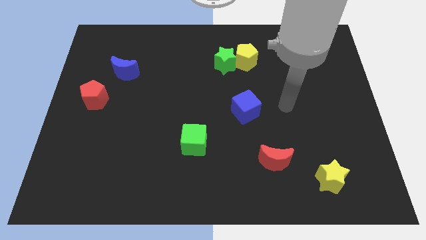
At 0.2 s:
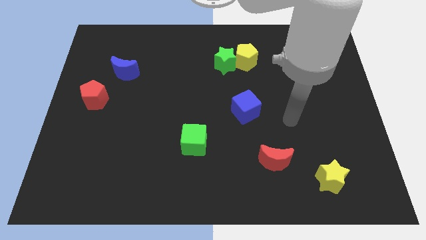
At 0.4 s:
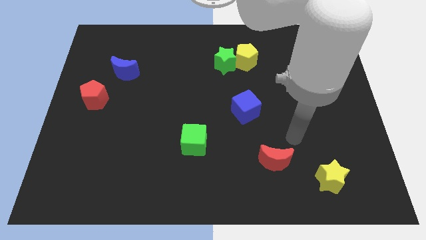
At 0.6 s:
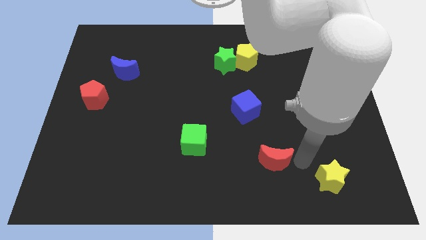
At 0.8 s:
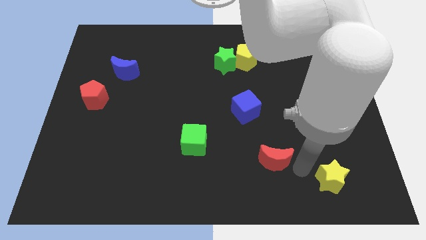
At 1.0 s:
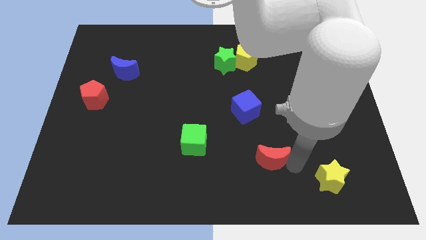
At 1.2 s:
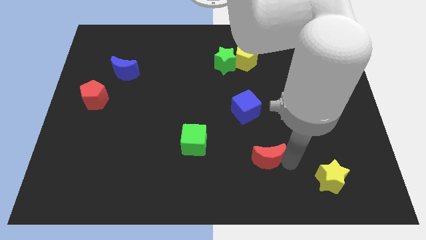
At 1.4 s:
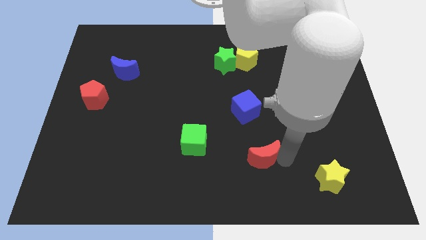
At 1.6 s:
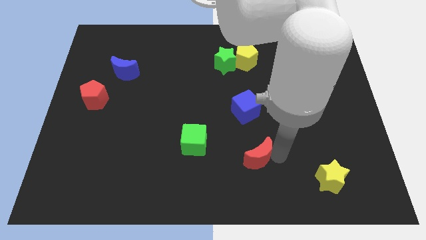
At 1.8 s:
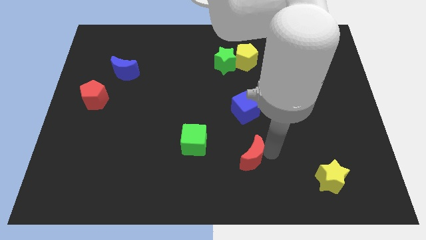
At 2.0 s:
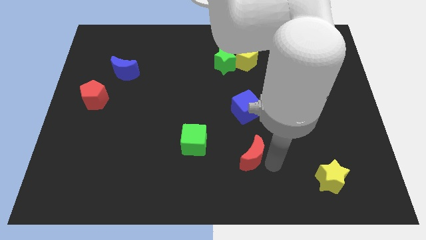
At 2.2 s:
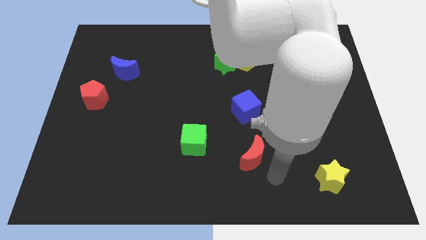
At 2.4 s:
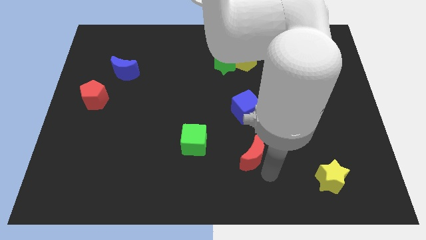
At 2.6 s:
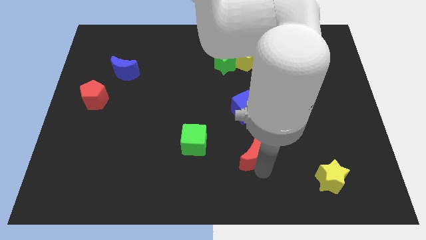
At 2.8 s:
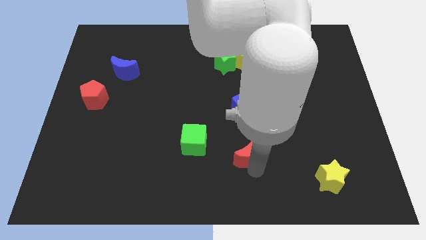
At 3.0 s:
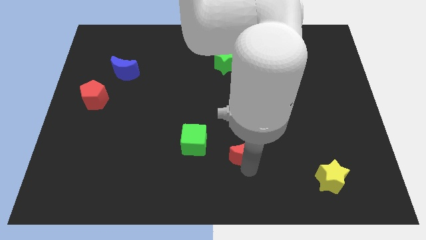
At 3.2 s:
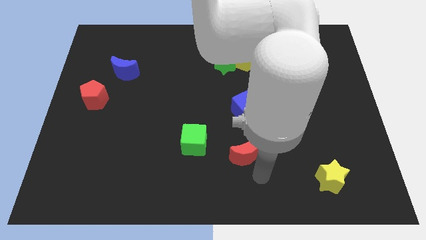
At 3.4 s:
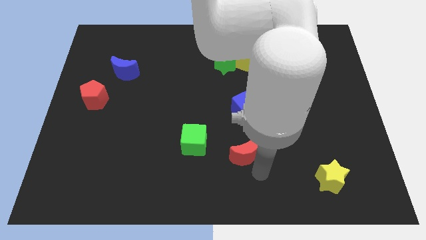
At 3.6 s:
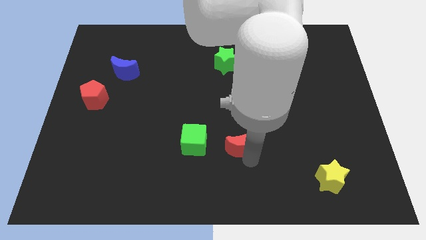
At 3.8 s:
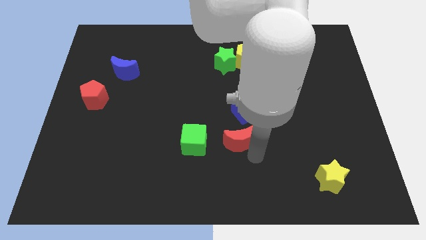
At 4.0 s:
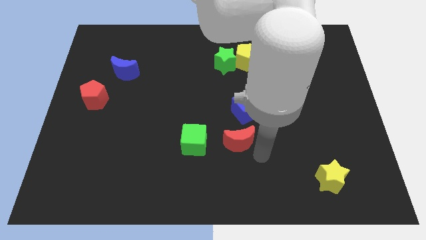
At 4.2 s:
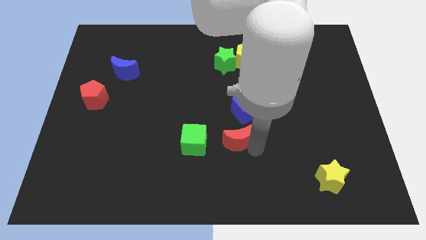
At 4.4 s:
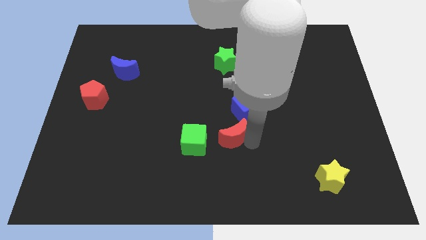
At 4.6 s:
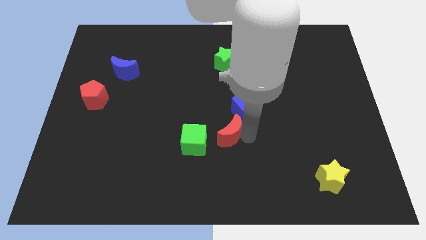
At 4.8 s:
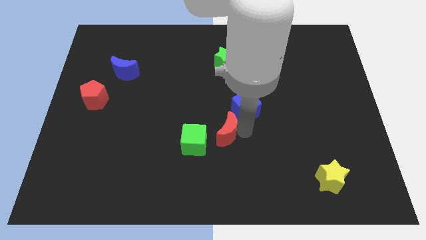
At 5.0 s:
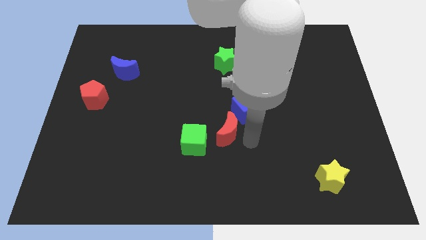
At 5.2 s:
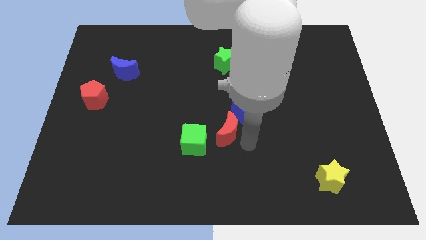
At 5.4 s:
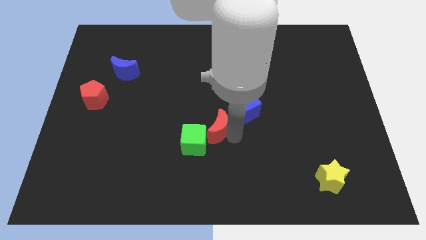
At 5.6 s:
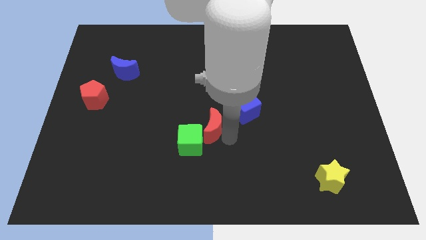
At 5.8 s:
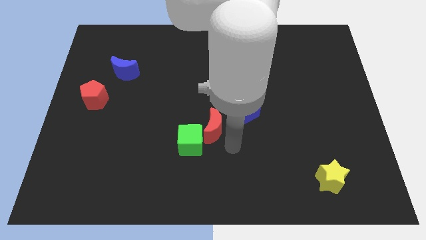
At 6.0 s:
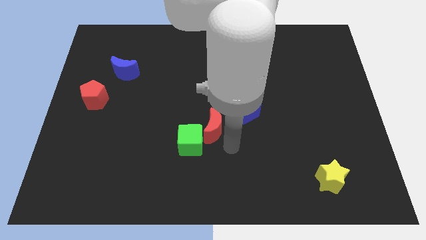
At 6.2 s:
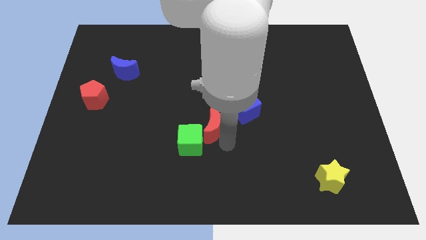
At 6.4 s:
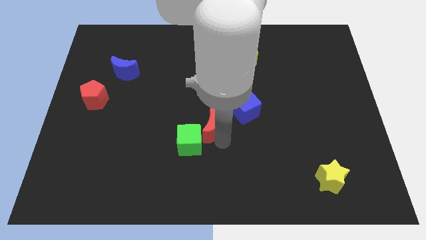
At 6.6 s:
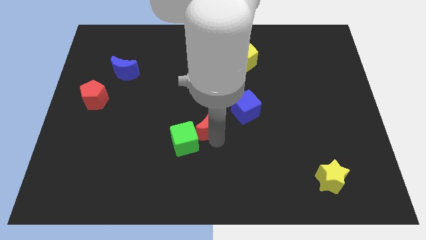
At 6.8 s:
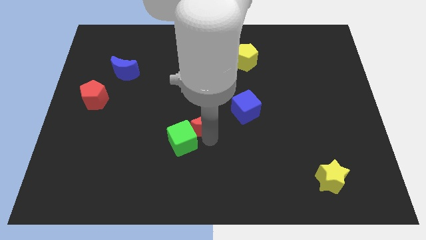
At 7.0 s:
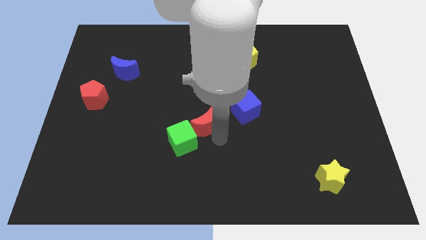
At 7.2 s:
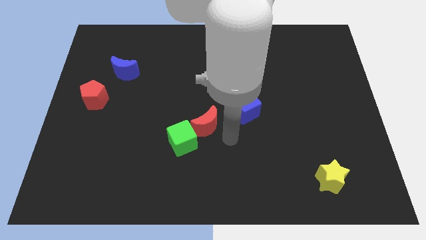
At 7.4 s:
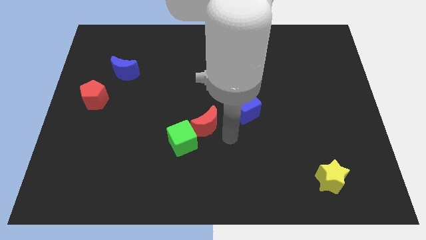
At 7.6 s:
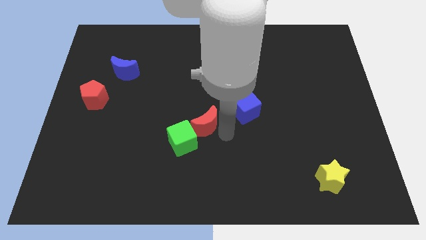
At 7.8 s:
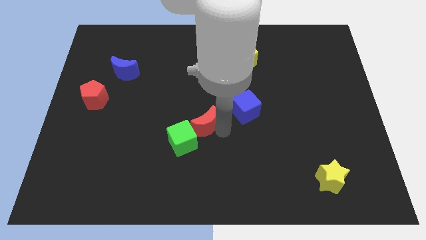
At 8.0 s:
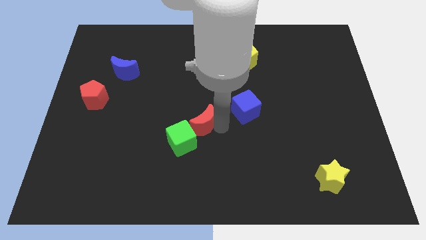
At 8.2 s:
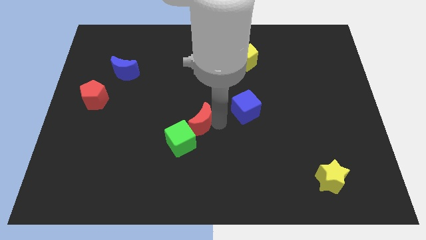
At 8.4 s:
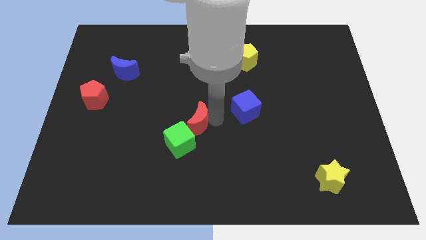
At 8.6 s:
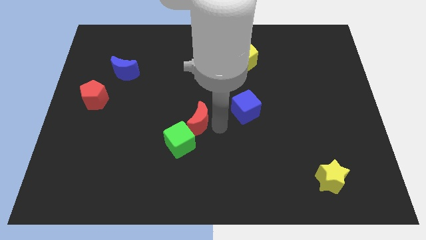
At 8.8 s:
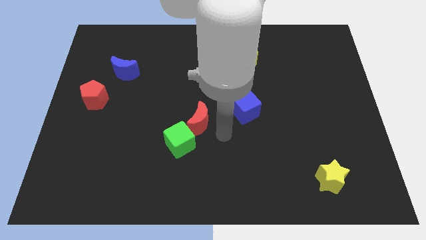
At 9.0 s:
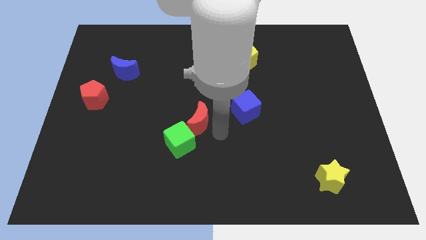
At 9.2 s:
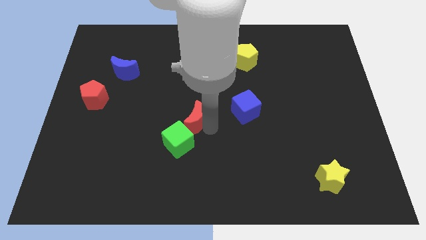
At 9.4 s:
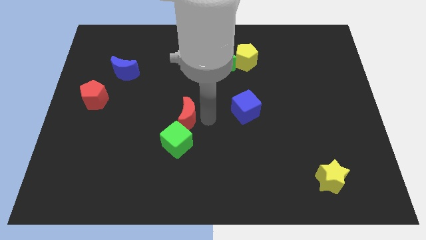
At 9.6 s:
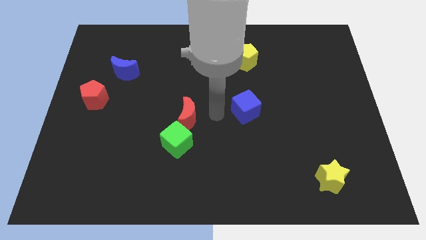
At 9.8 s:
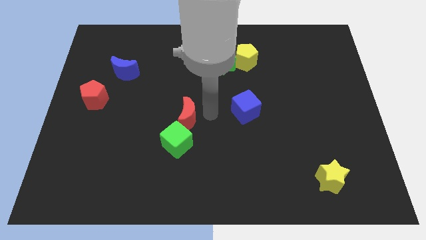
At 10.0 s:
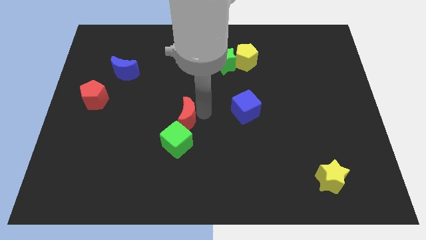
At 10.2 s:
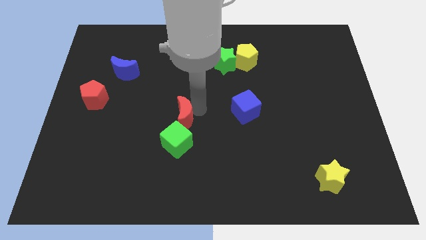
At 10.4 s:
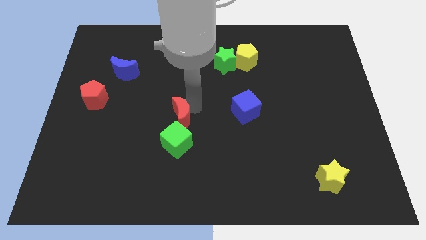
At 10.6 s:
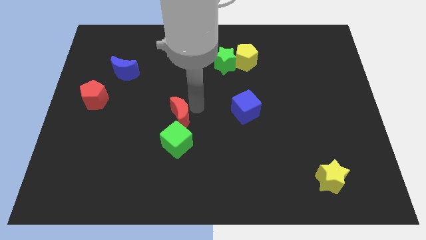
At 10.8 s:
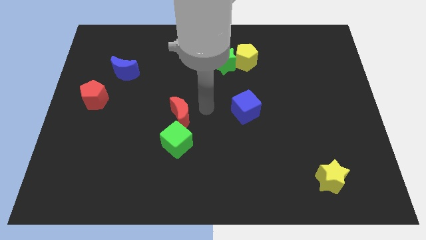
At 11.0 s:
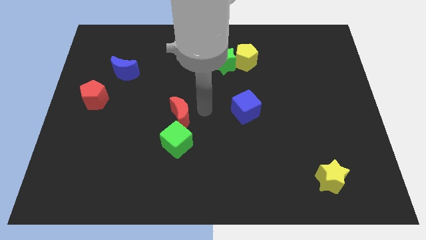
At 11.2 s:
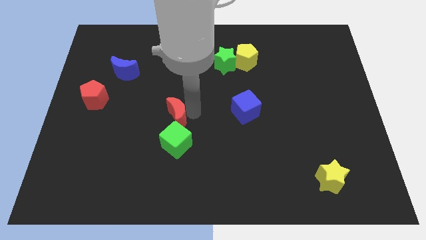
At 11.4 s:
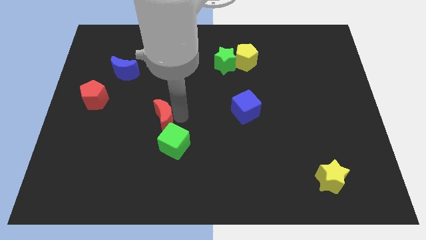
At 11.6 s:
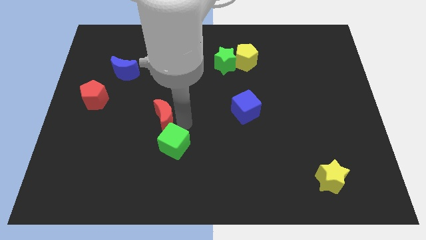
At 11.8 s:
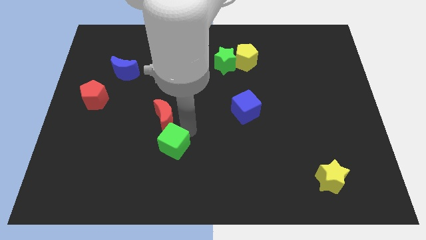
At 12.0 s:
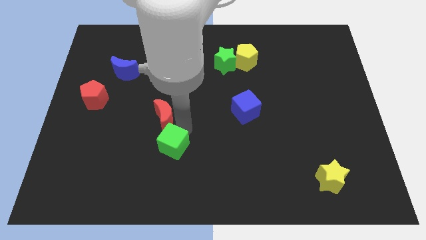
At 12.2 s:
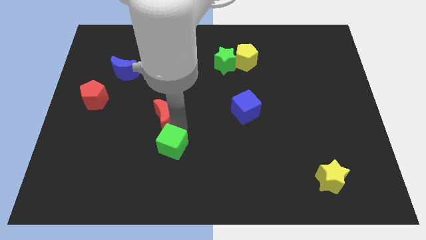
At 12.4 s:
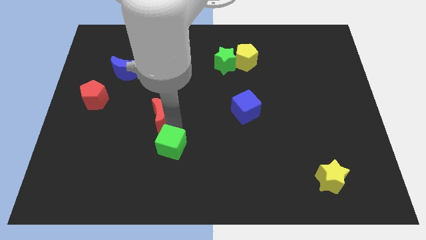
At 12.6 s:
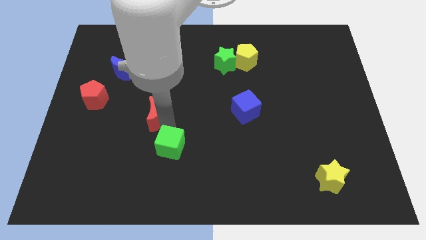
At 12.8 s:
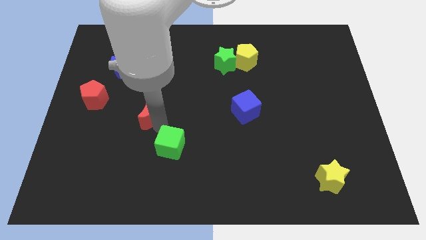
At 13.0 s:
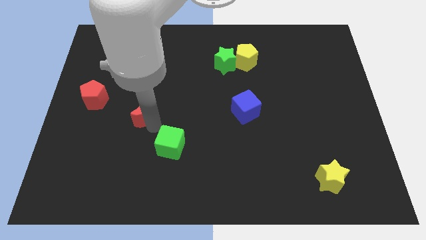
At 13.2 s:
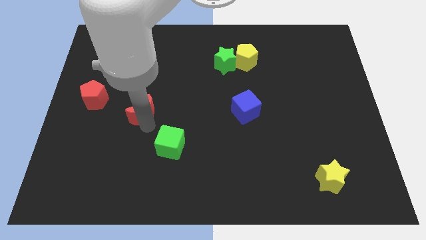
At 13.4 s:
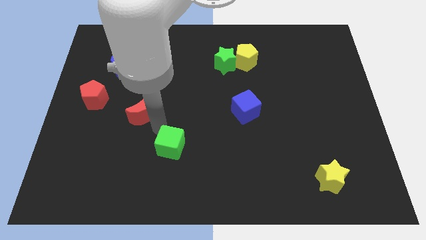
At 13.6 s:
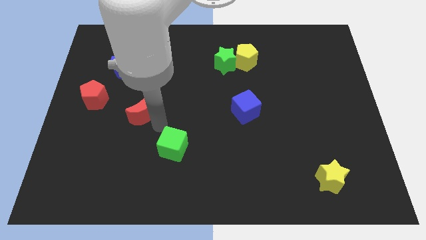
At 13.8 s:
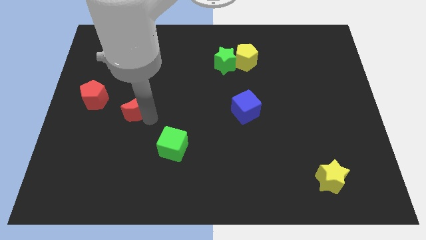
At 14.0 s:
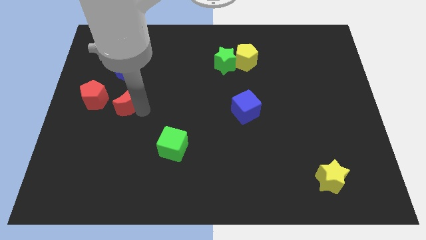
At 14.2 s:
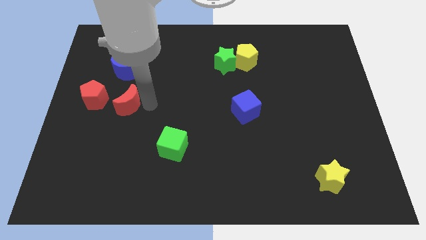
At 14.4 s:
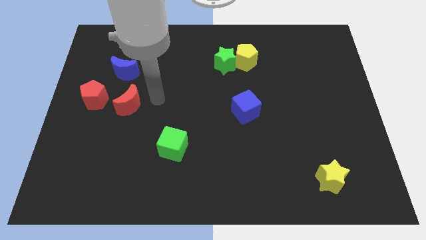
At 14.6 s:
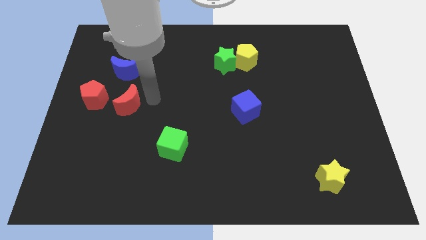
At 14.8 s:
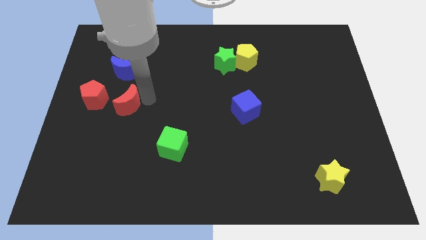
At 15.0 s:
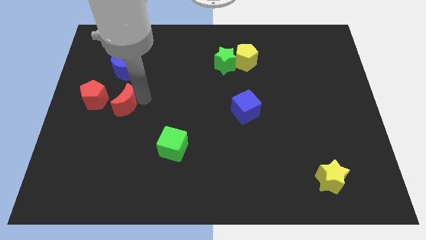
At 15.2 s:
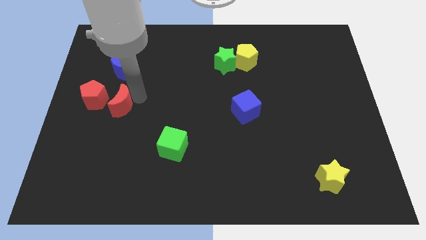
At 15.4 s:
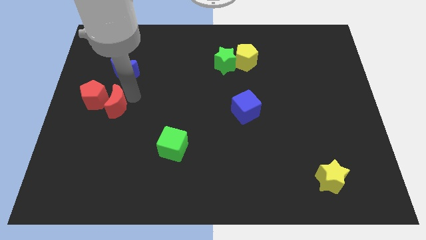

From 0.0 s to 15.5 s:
push the red moon to the red pentagon

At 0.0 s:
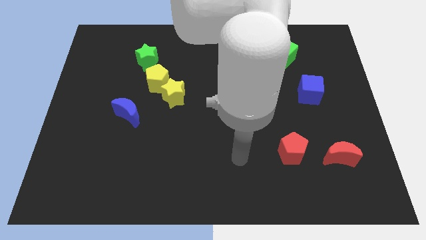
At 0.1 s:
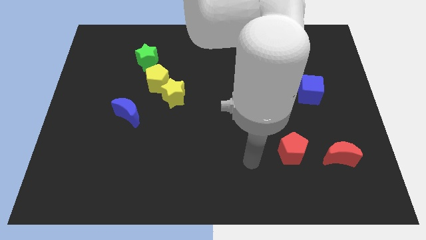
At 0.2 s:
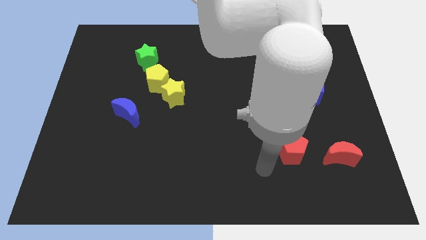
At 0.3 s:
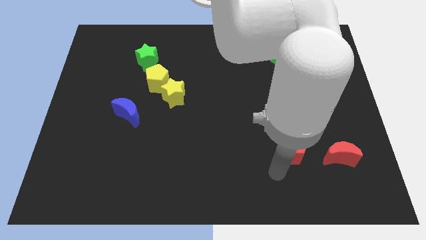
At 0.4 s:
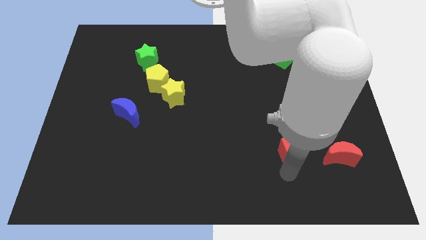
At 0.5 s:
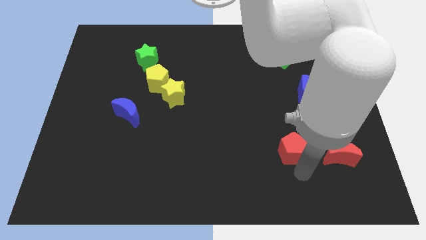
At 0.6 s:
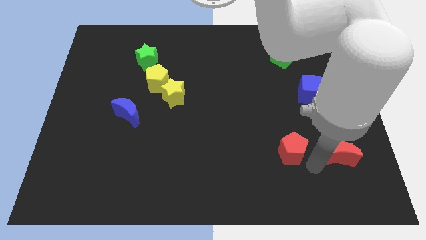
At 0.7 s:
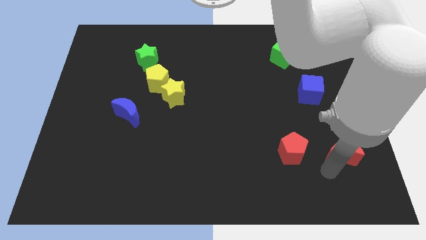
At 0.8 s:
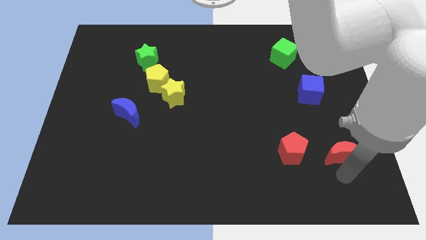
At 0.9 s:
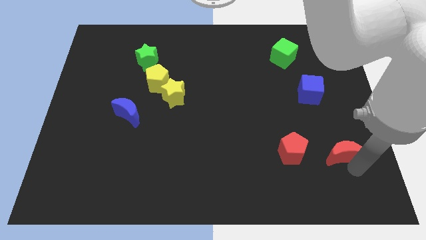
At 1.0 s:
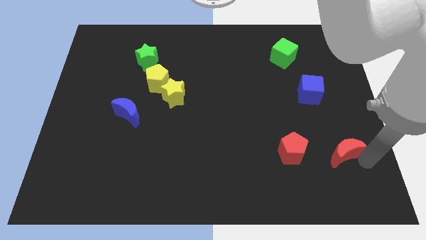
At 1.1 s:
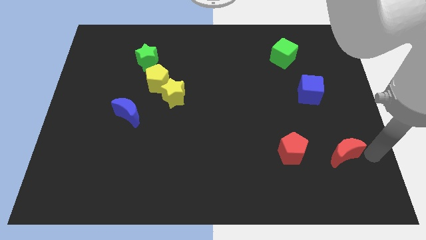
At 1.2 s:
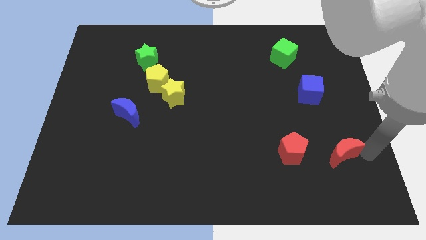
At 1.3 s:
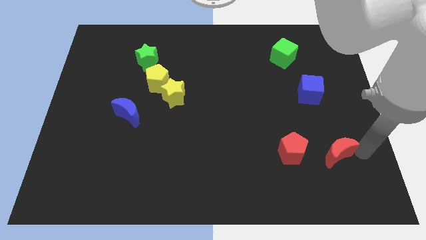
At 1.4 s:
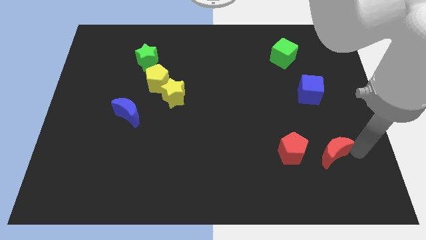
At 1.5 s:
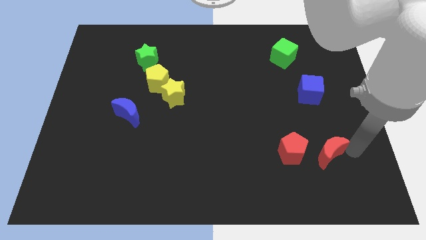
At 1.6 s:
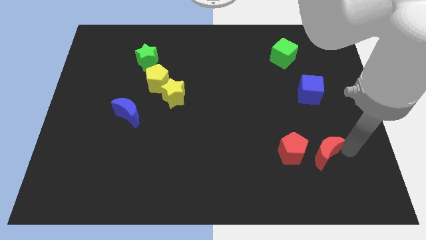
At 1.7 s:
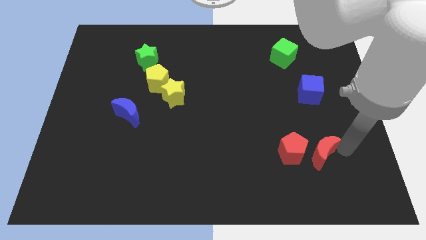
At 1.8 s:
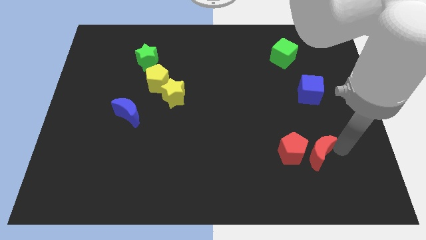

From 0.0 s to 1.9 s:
move the red moon towards the red pentagon
